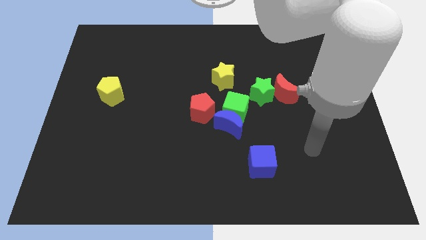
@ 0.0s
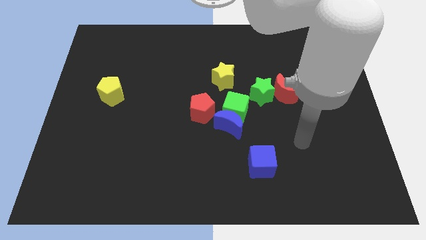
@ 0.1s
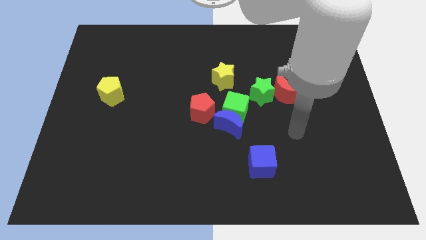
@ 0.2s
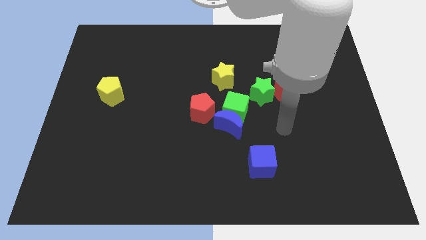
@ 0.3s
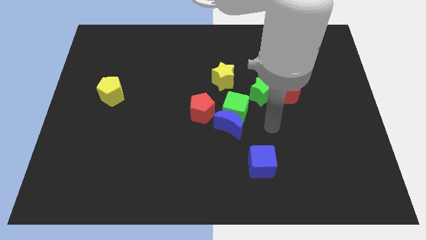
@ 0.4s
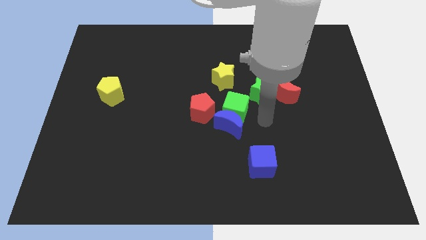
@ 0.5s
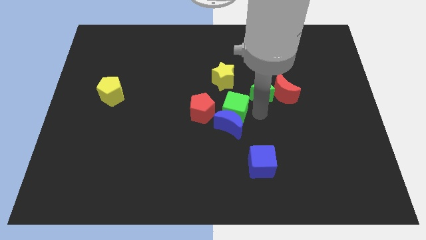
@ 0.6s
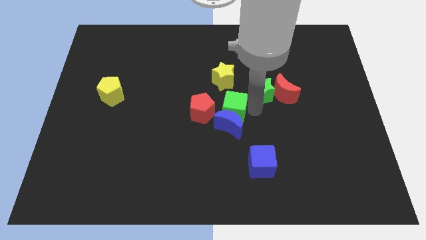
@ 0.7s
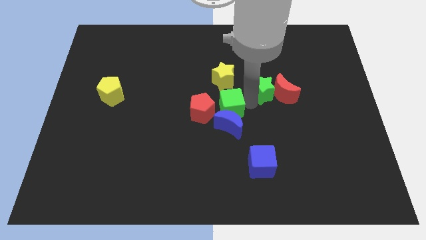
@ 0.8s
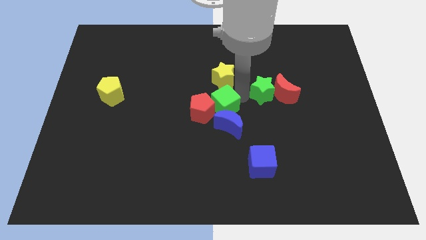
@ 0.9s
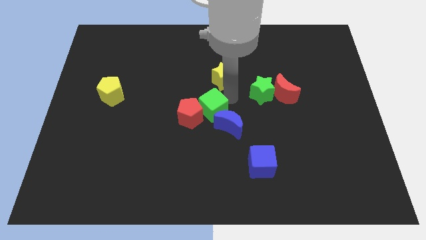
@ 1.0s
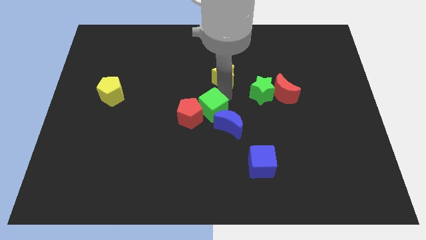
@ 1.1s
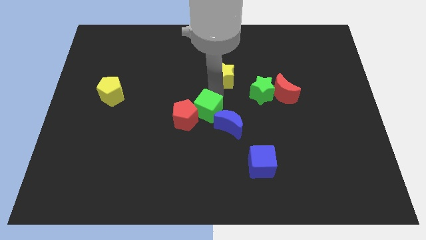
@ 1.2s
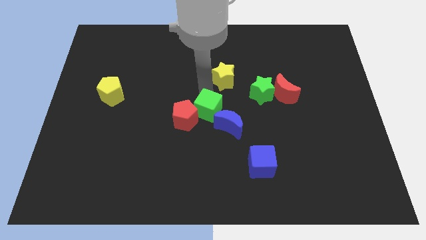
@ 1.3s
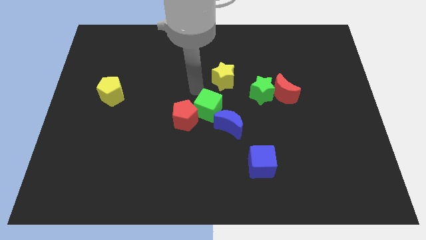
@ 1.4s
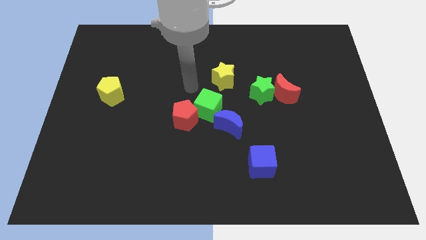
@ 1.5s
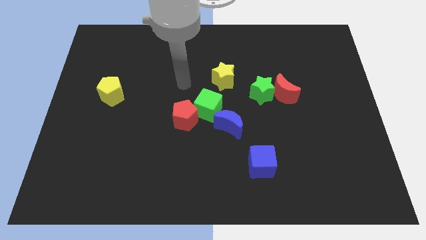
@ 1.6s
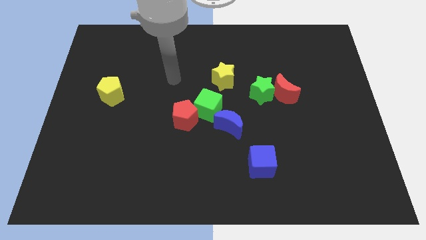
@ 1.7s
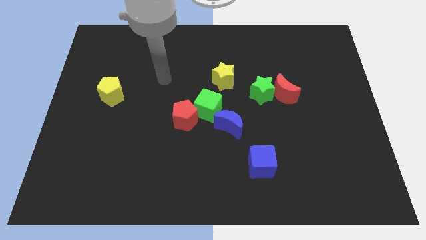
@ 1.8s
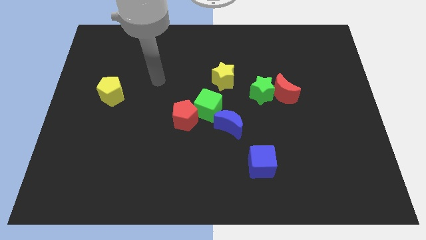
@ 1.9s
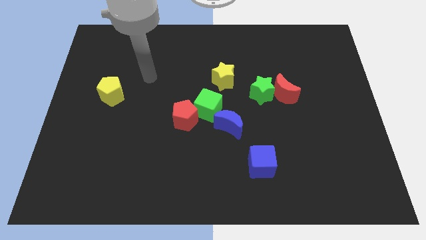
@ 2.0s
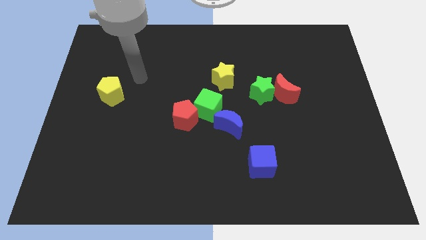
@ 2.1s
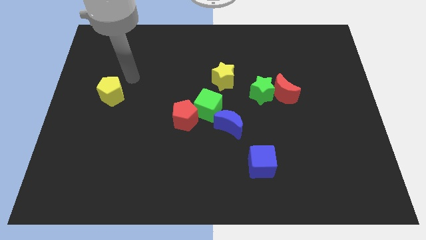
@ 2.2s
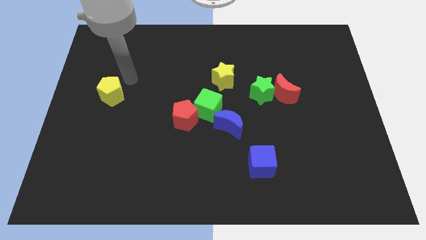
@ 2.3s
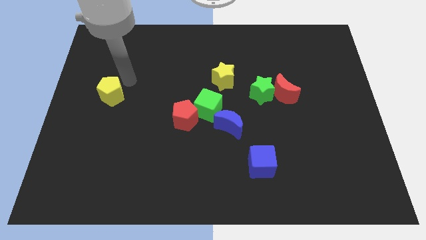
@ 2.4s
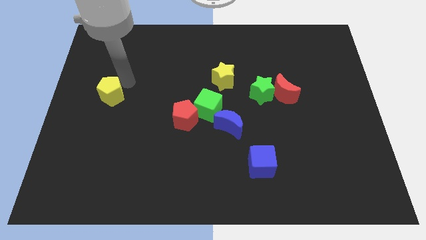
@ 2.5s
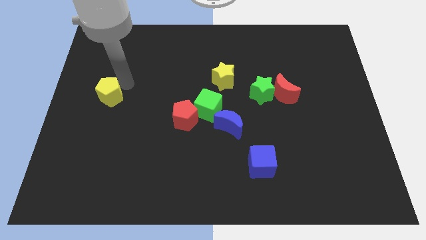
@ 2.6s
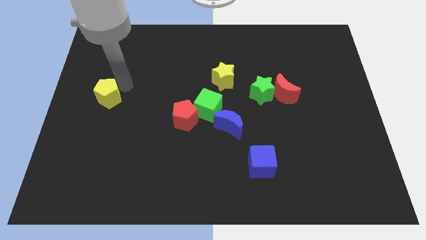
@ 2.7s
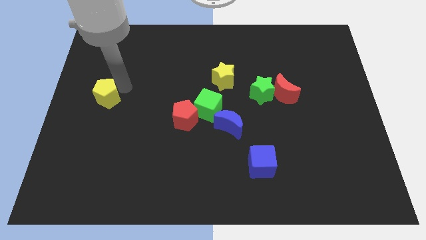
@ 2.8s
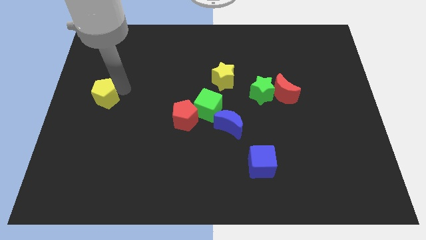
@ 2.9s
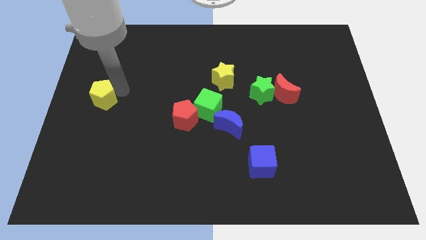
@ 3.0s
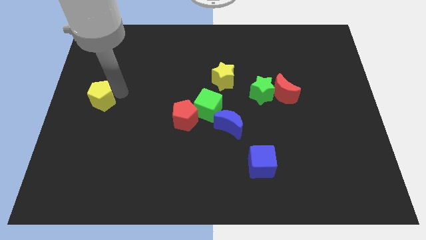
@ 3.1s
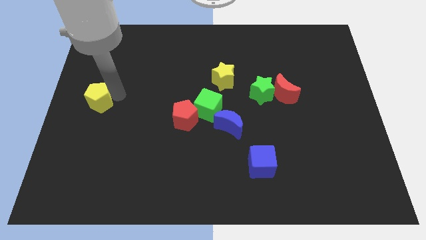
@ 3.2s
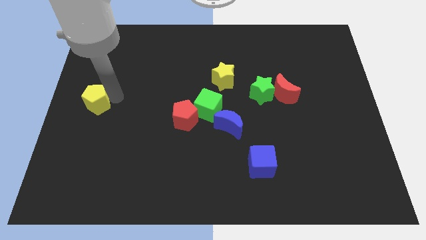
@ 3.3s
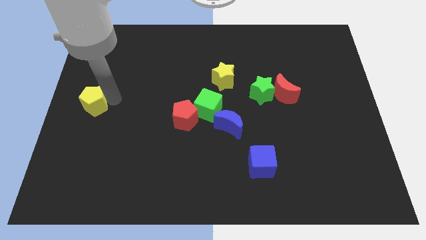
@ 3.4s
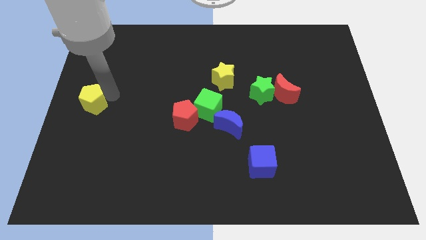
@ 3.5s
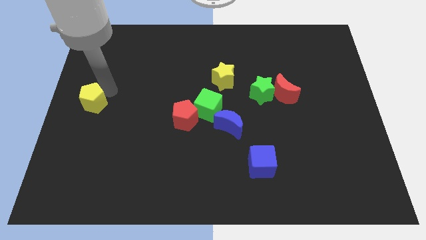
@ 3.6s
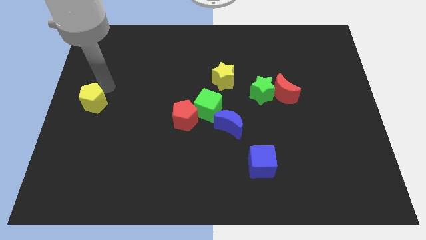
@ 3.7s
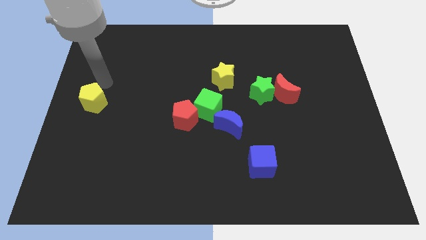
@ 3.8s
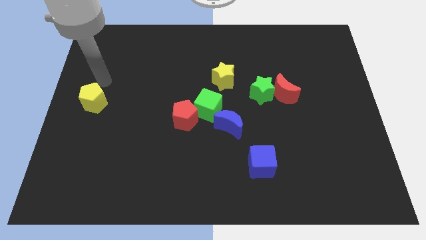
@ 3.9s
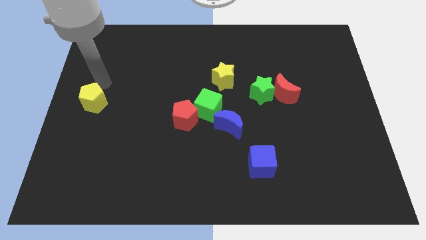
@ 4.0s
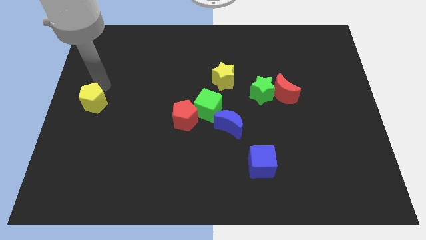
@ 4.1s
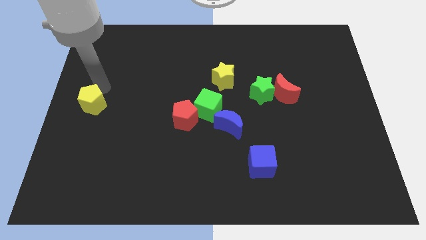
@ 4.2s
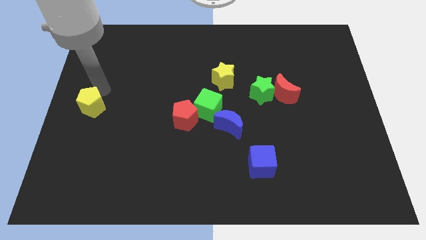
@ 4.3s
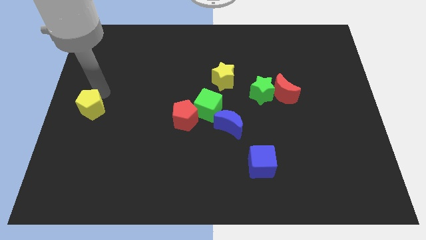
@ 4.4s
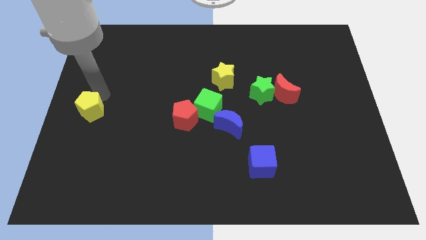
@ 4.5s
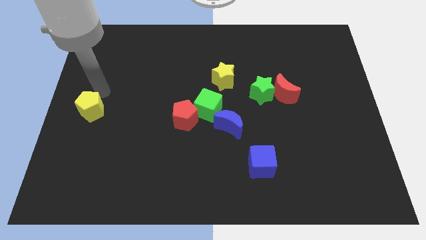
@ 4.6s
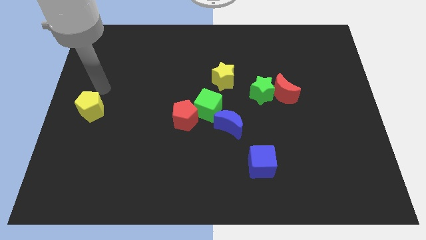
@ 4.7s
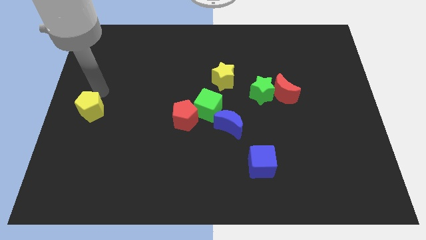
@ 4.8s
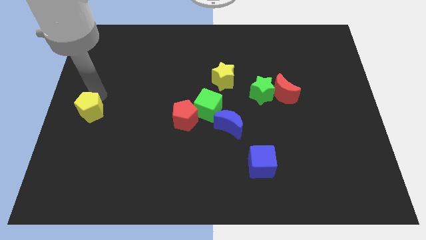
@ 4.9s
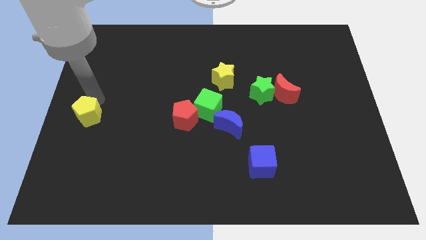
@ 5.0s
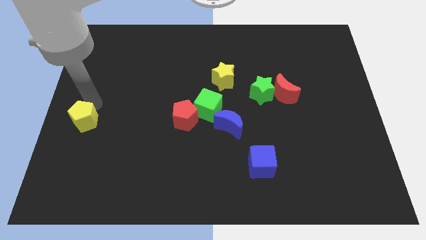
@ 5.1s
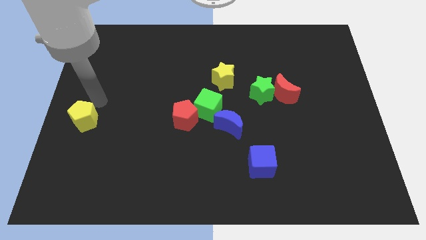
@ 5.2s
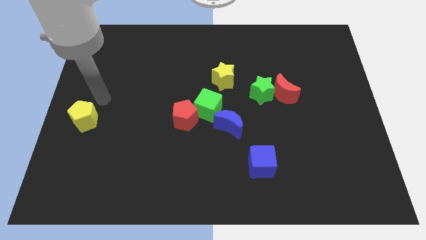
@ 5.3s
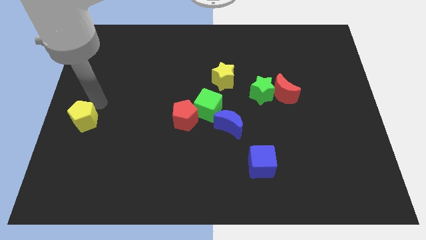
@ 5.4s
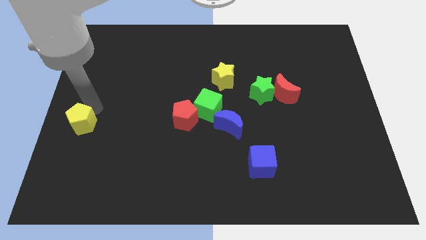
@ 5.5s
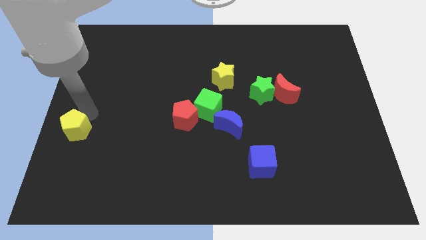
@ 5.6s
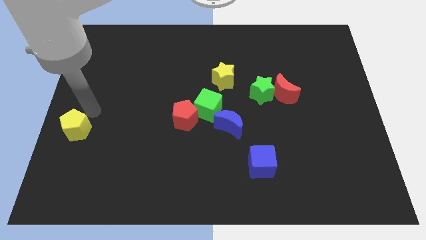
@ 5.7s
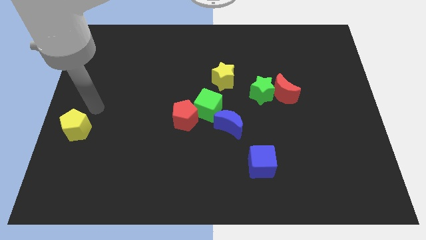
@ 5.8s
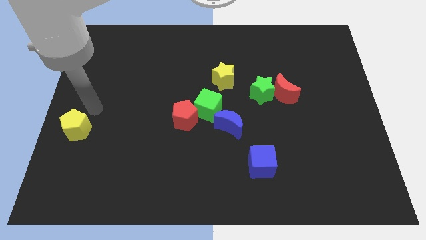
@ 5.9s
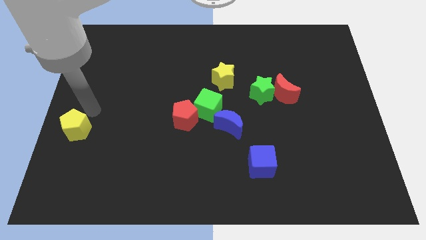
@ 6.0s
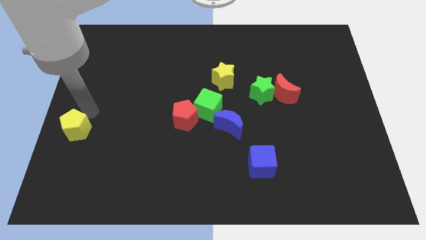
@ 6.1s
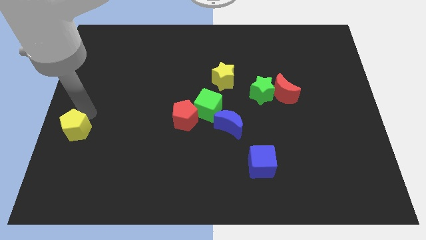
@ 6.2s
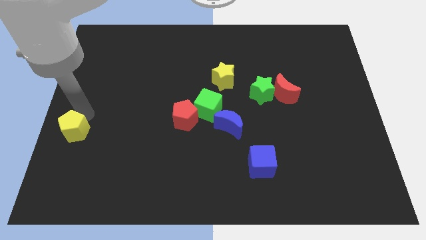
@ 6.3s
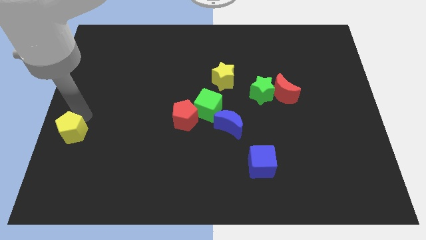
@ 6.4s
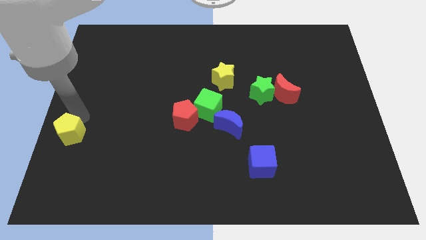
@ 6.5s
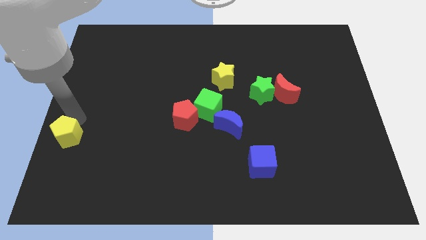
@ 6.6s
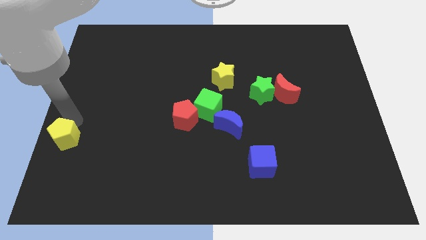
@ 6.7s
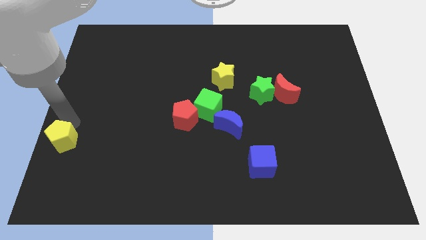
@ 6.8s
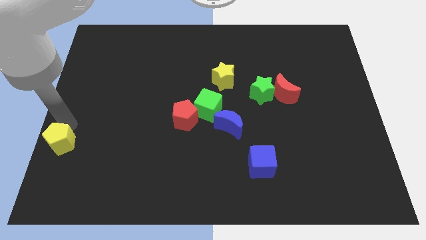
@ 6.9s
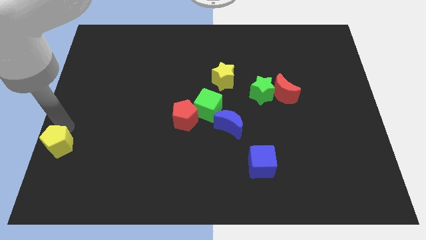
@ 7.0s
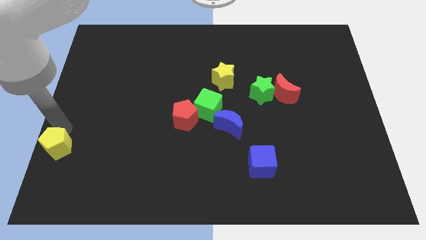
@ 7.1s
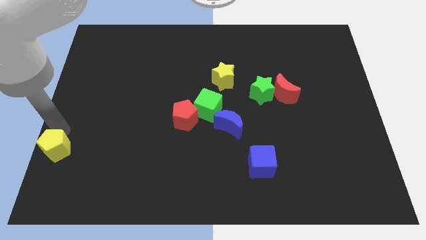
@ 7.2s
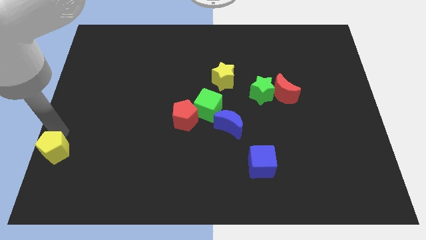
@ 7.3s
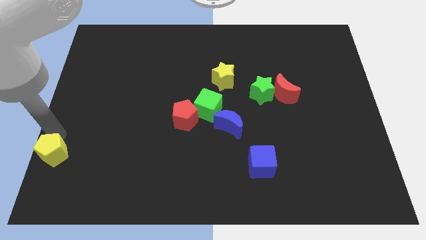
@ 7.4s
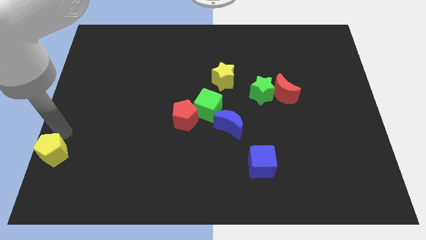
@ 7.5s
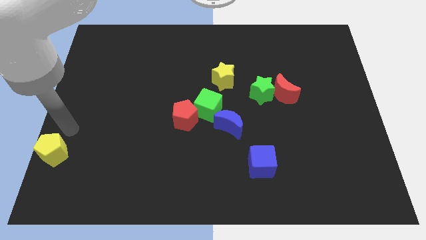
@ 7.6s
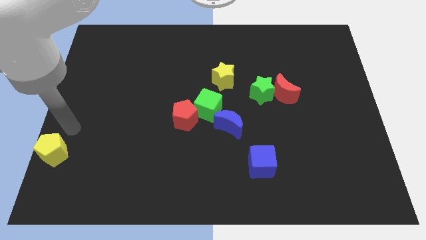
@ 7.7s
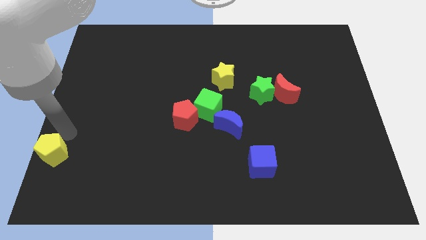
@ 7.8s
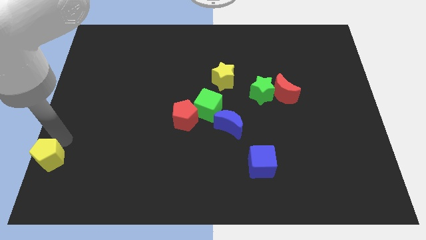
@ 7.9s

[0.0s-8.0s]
push the yellow pentagon to the bottom left
